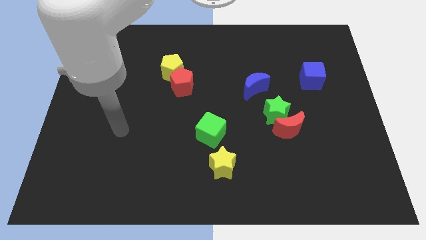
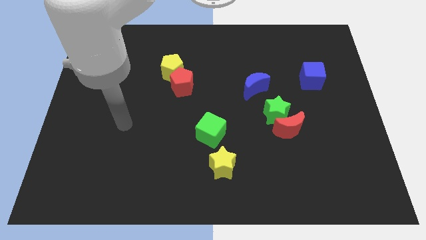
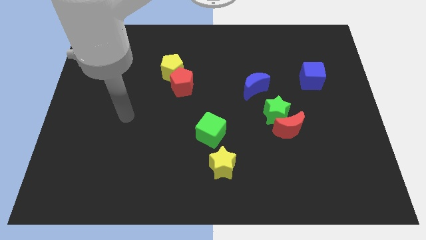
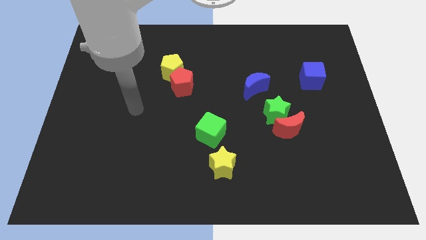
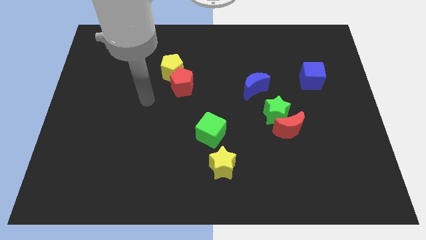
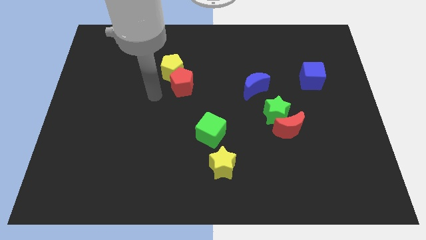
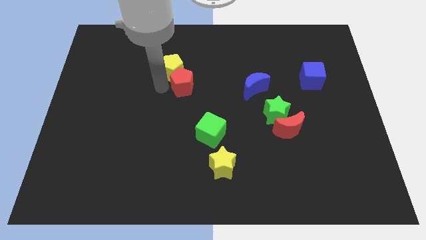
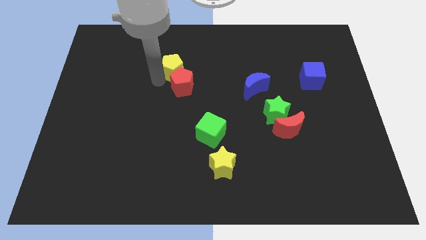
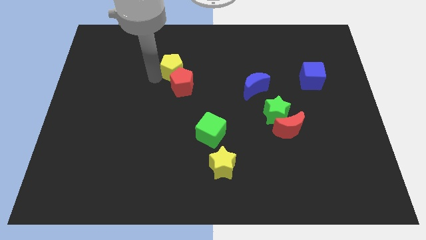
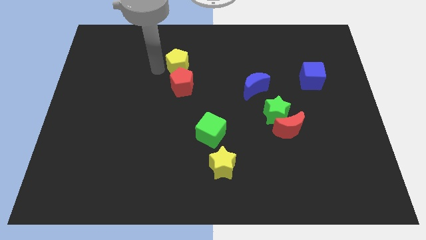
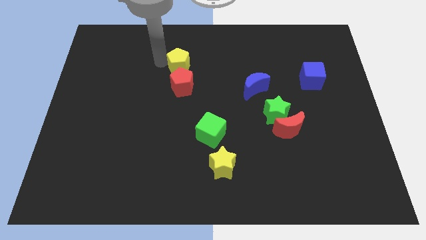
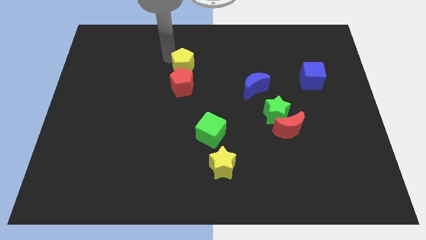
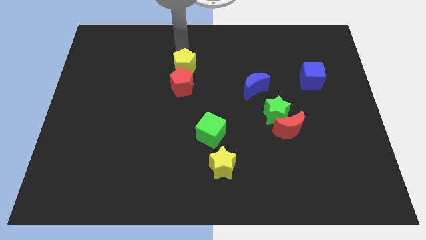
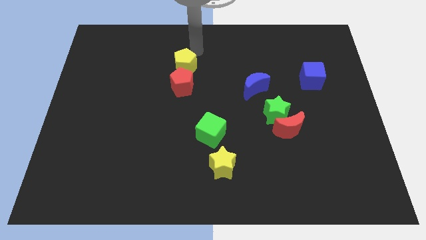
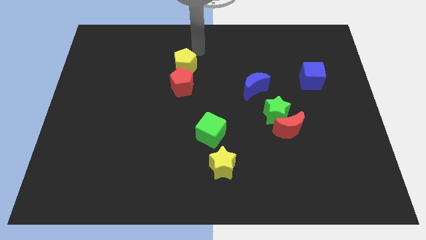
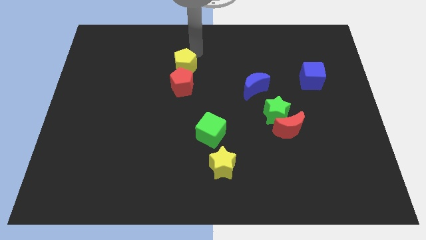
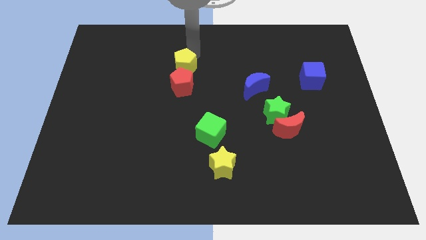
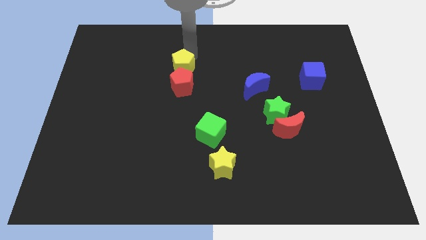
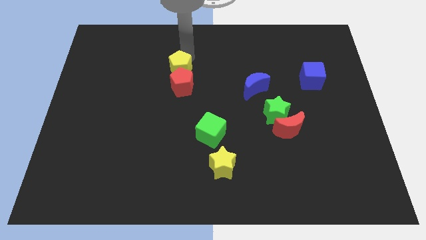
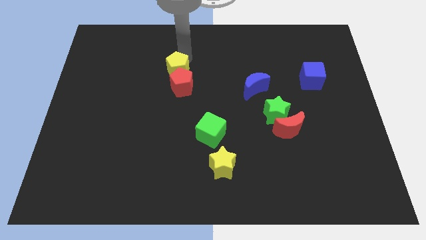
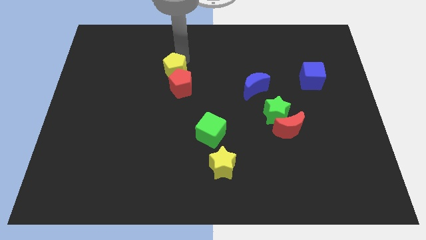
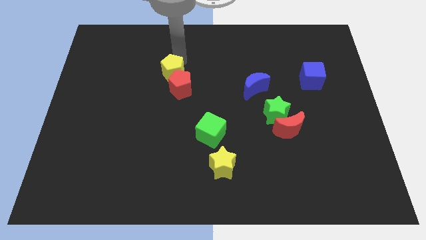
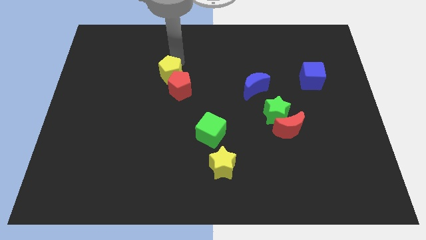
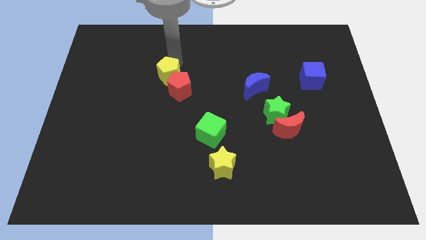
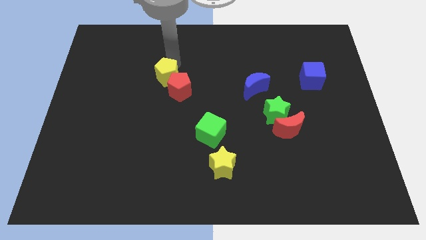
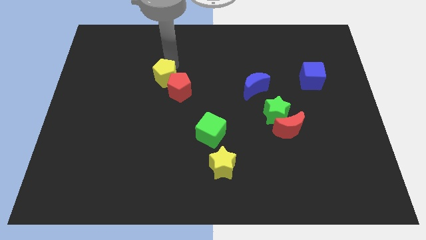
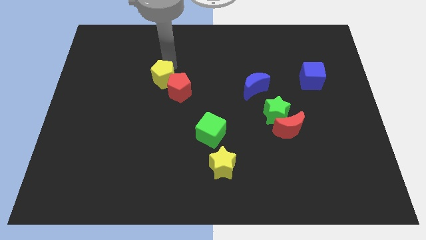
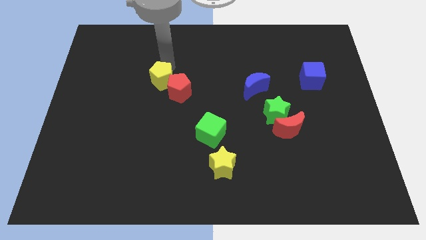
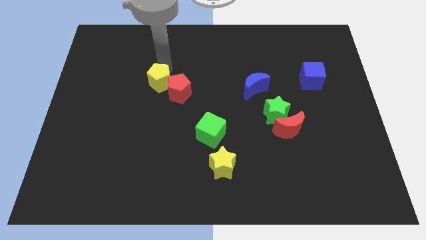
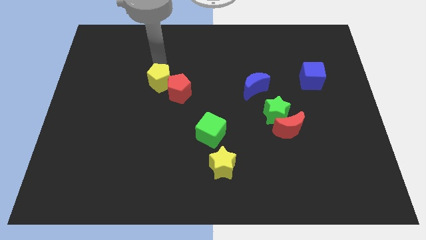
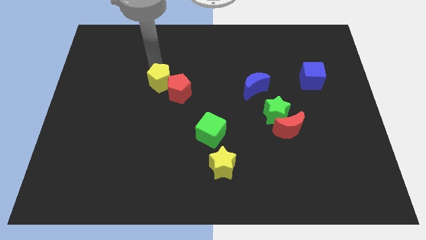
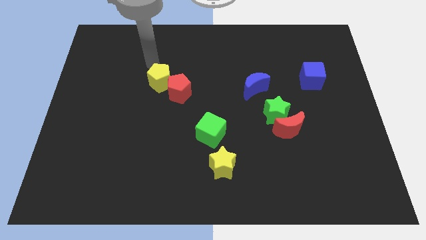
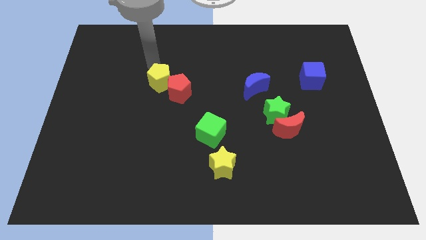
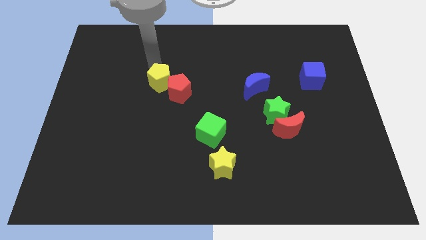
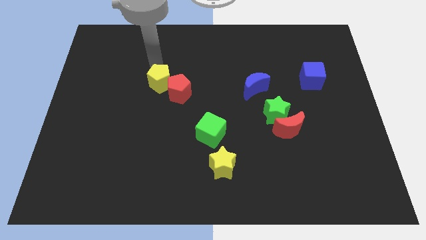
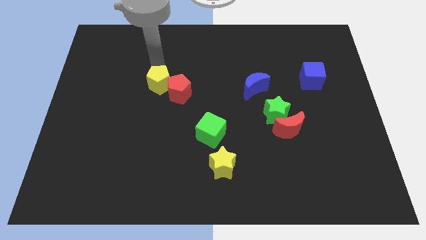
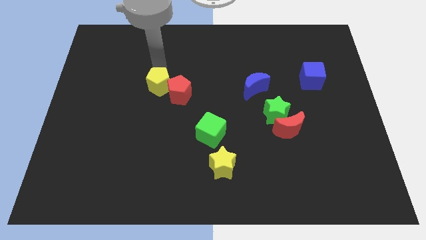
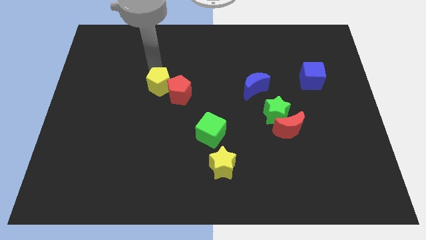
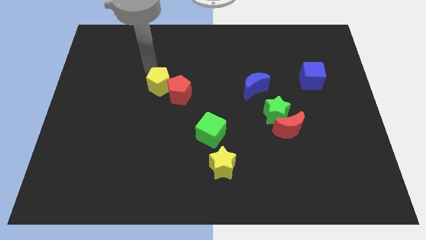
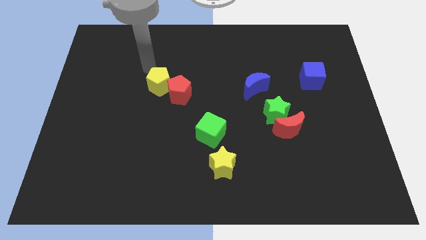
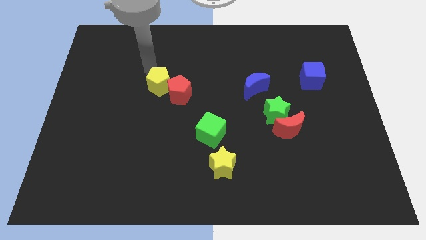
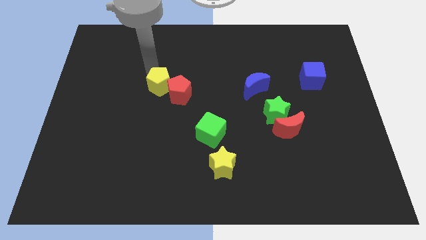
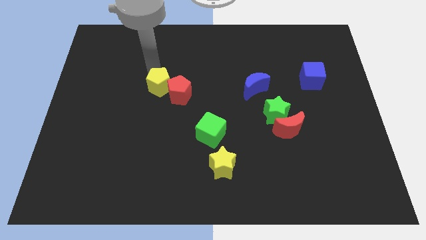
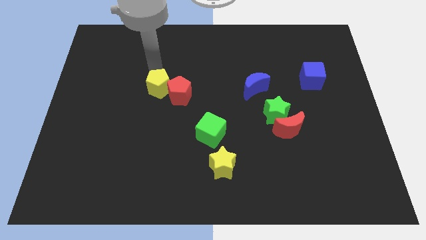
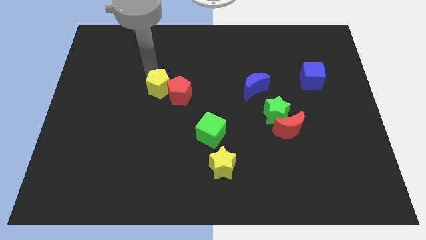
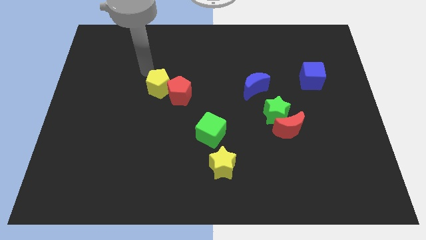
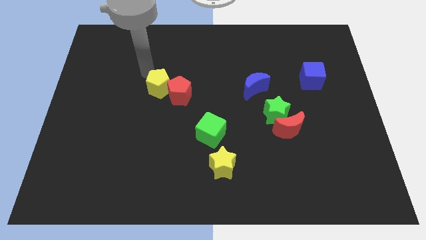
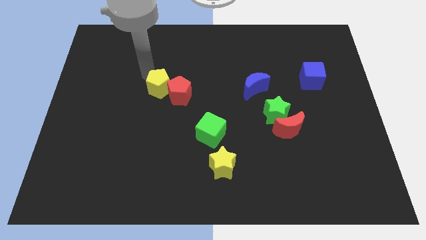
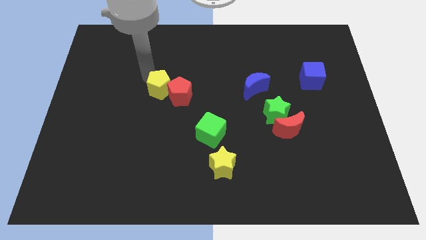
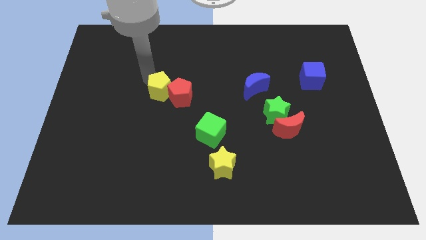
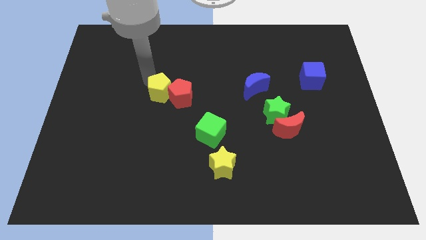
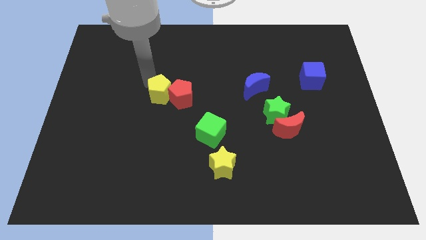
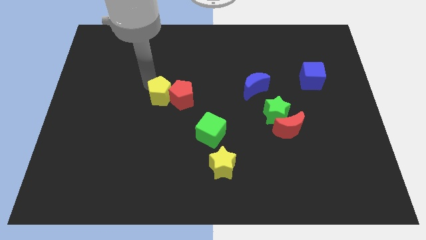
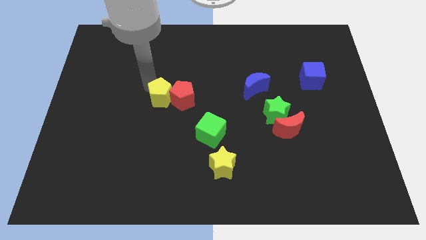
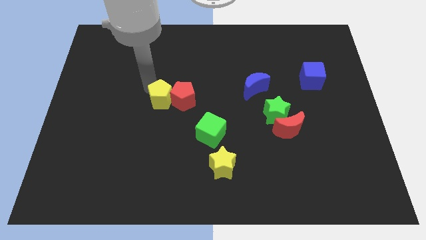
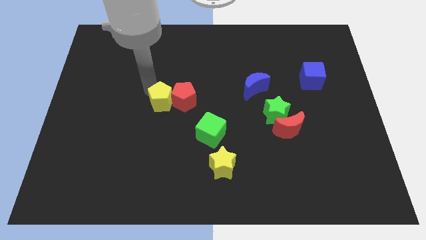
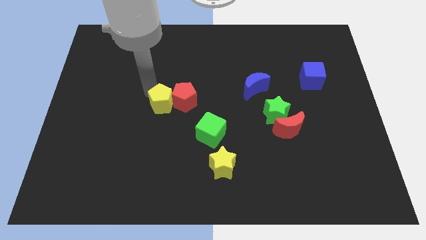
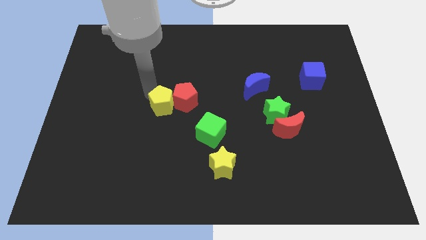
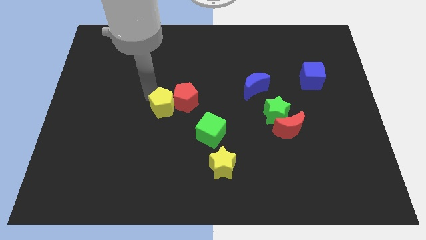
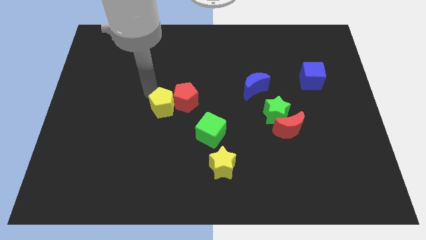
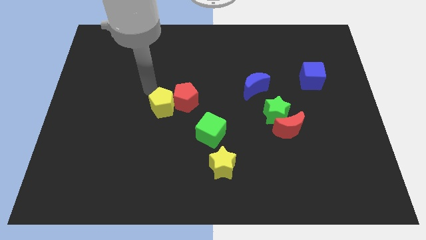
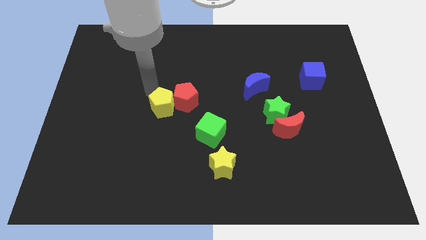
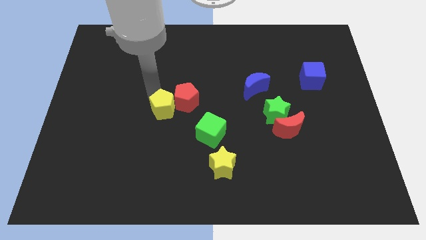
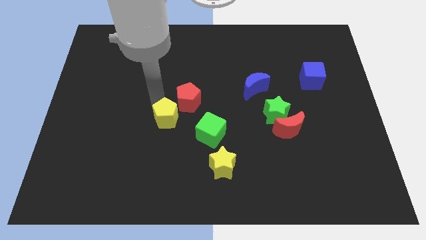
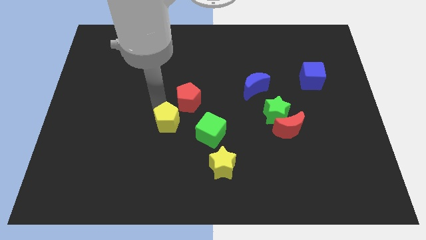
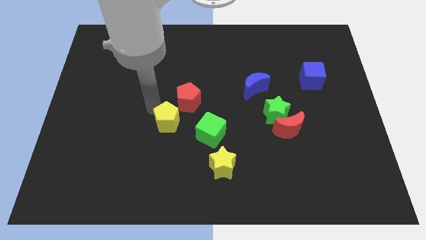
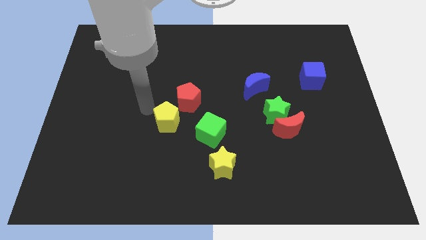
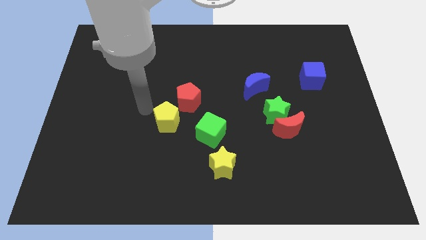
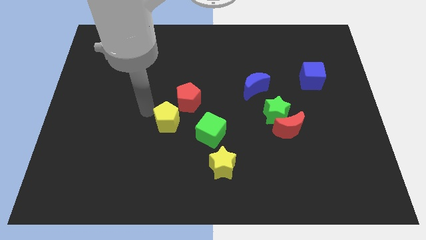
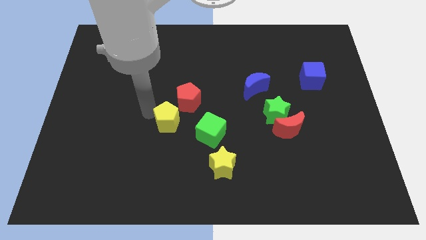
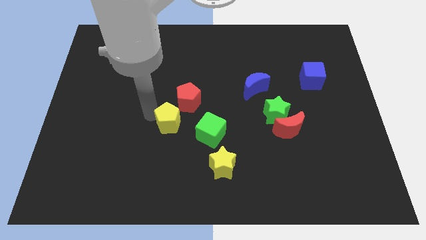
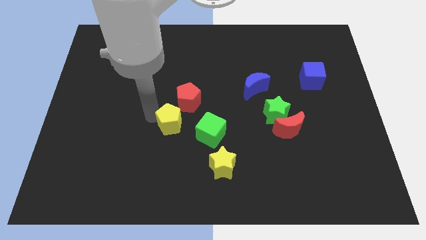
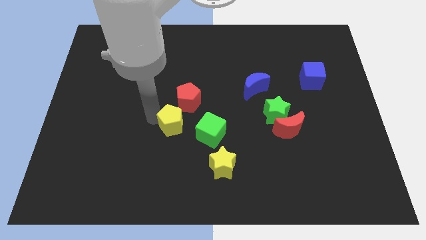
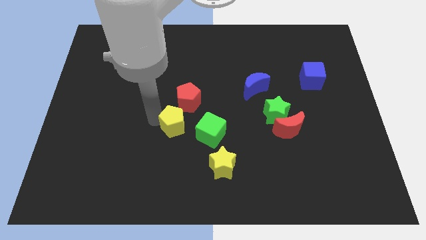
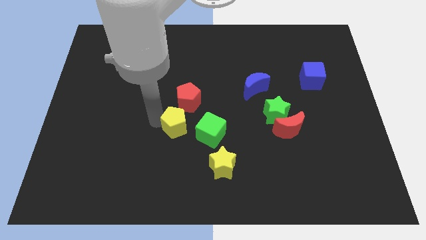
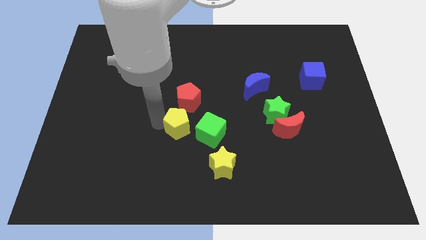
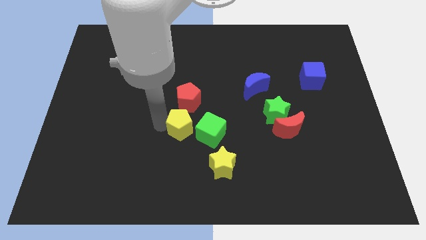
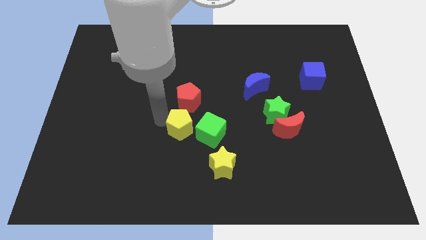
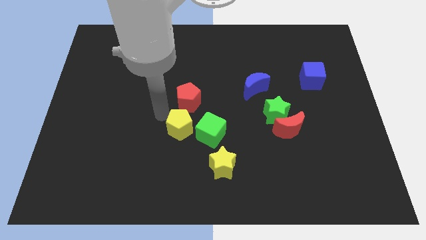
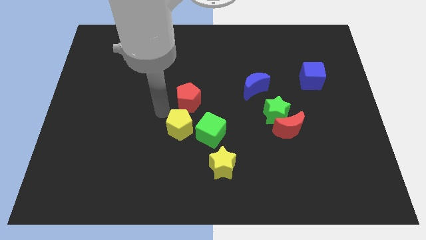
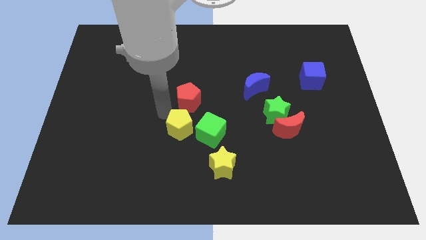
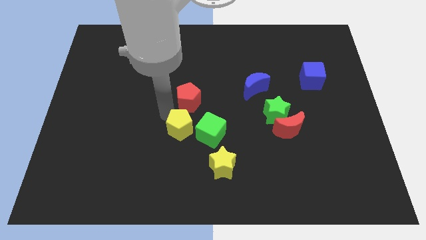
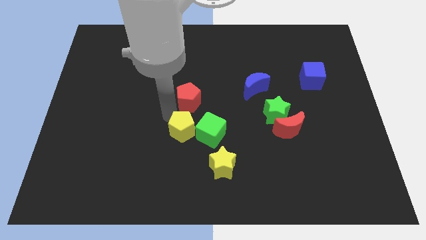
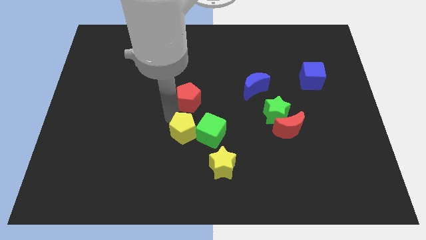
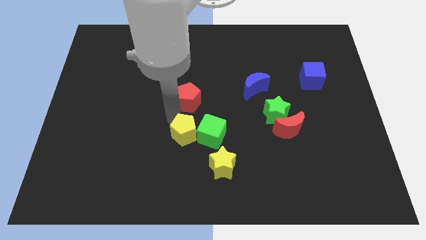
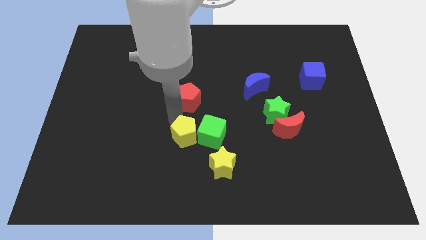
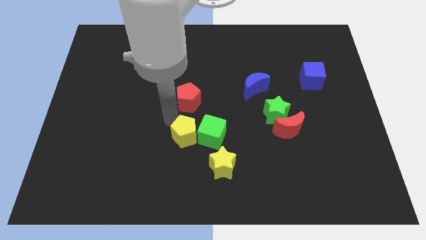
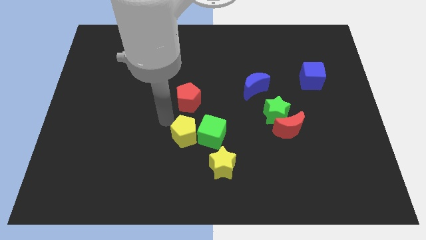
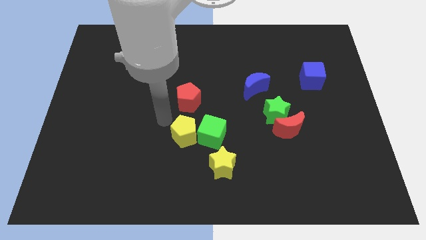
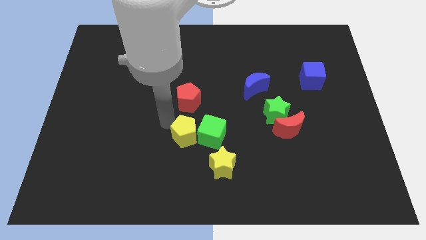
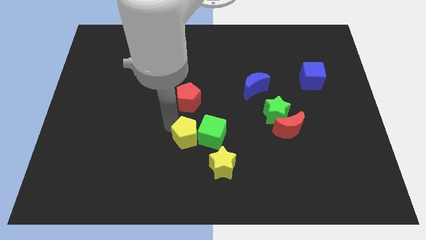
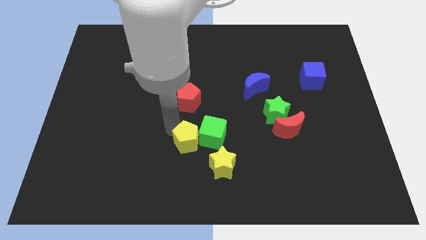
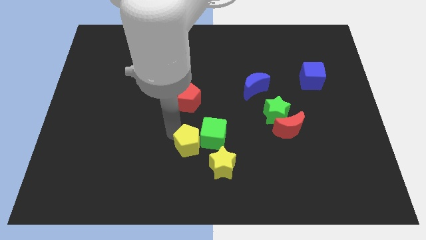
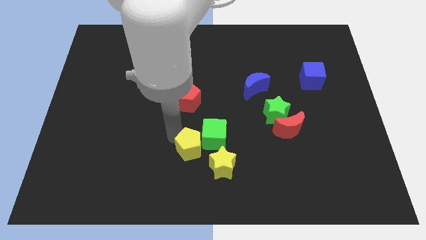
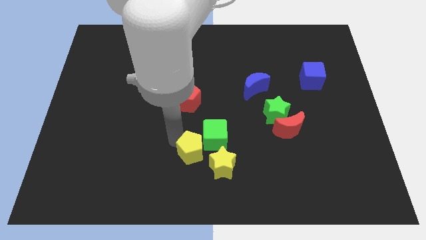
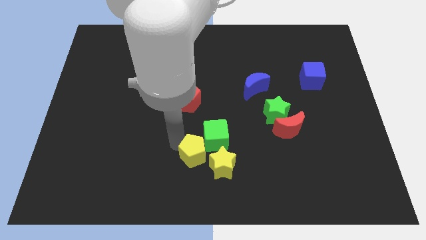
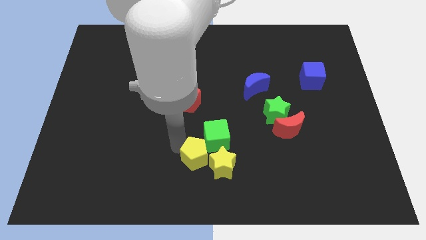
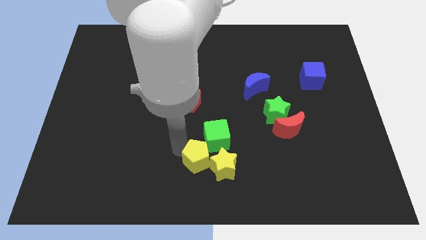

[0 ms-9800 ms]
put the yellow pentagon to the yellow star
